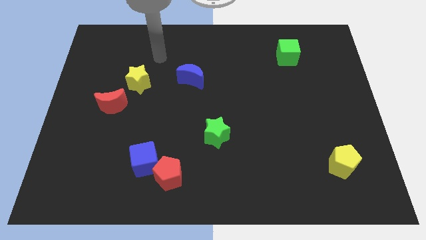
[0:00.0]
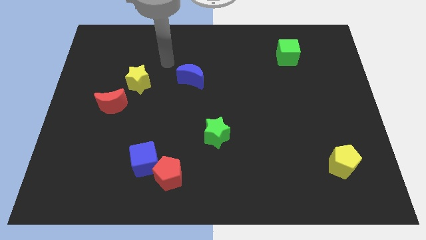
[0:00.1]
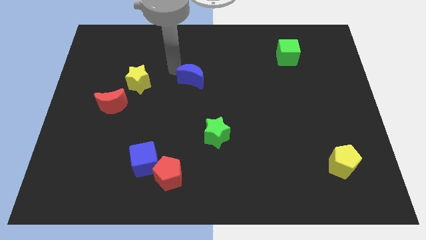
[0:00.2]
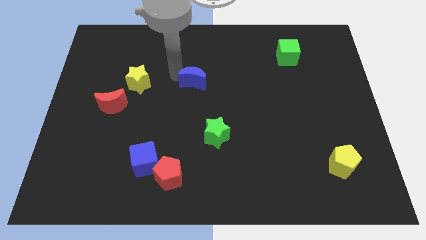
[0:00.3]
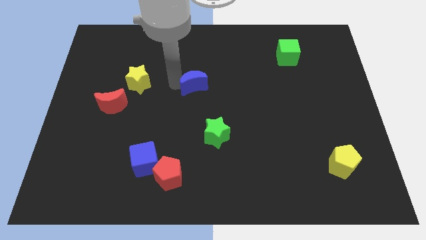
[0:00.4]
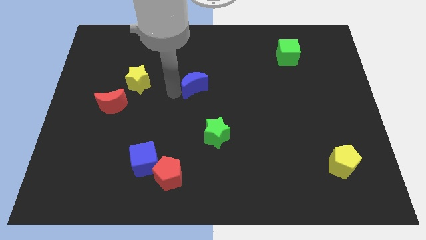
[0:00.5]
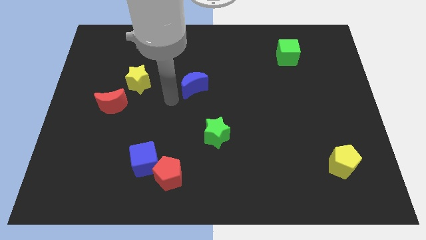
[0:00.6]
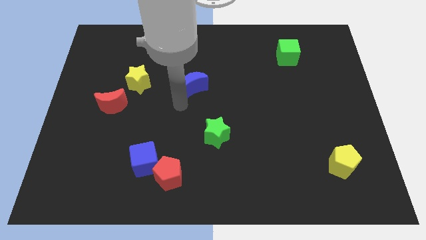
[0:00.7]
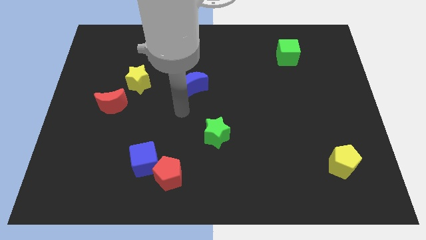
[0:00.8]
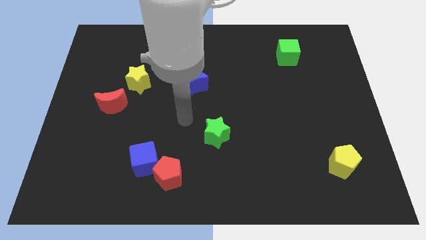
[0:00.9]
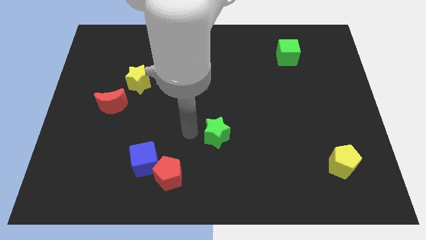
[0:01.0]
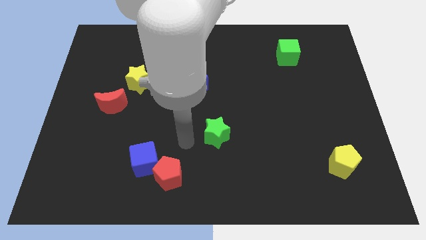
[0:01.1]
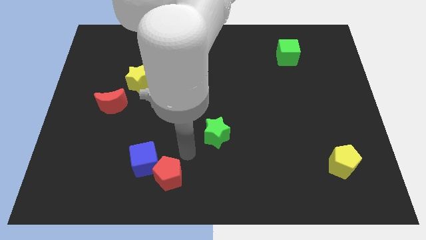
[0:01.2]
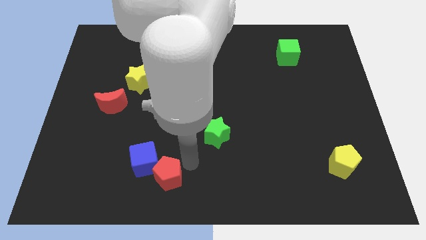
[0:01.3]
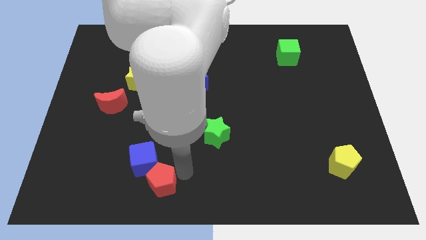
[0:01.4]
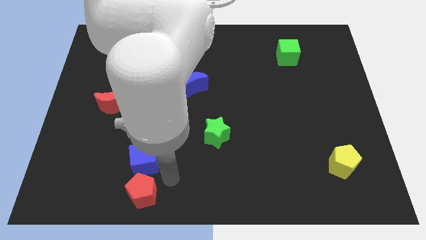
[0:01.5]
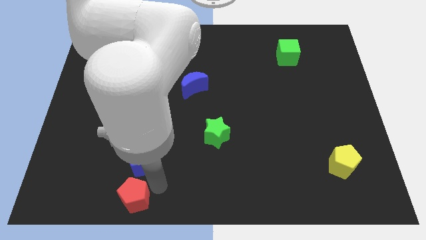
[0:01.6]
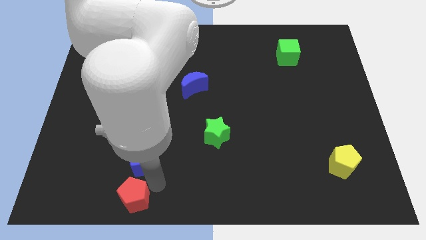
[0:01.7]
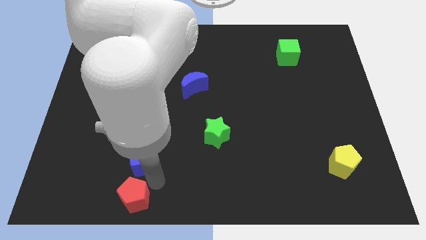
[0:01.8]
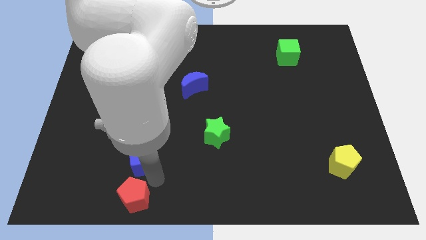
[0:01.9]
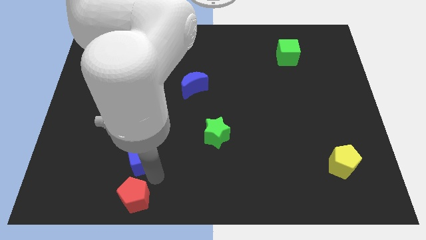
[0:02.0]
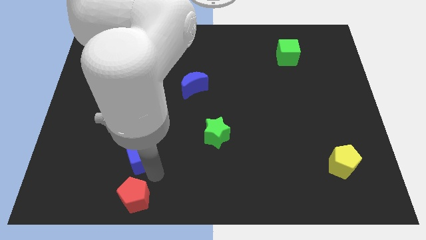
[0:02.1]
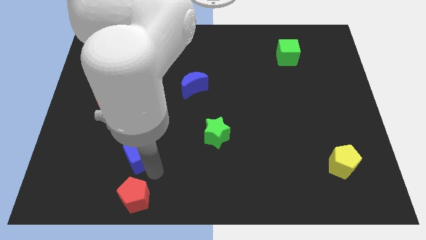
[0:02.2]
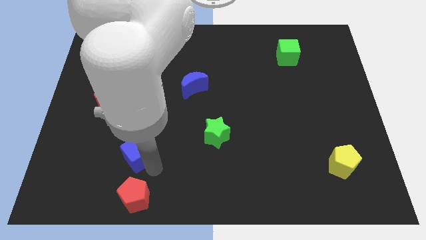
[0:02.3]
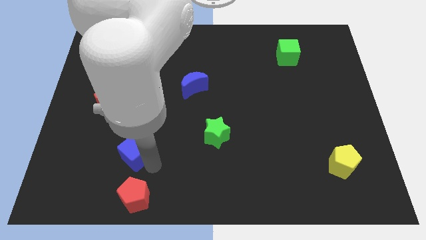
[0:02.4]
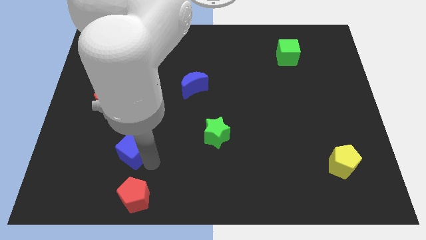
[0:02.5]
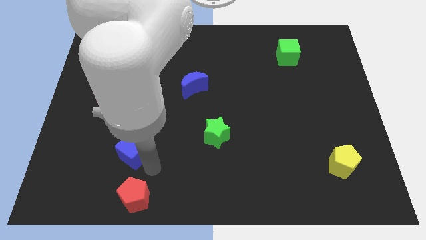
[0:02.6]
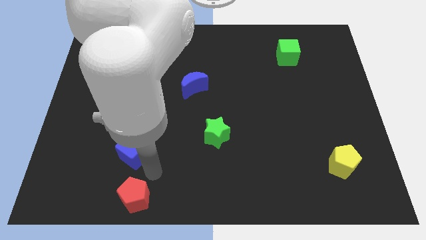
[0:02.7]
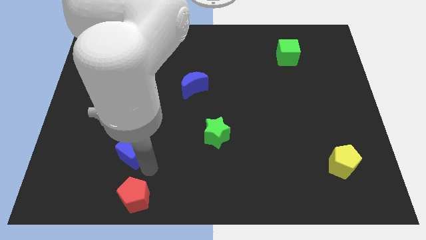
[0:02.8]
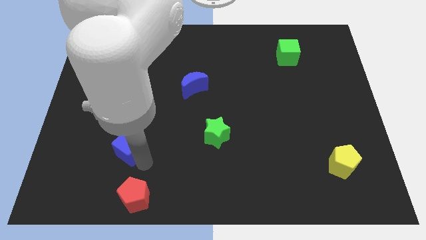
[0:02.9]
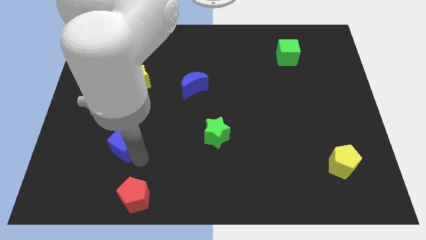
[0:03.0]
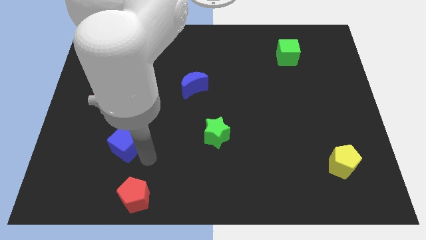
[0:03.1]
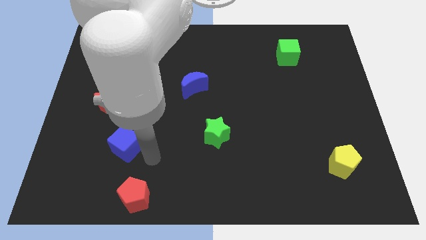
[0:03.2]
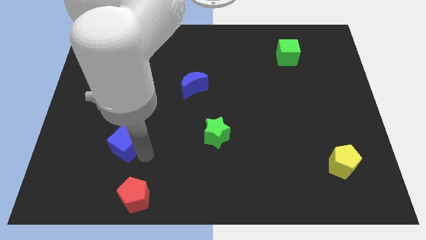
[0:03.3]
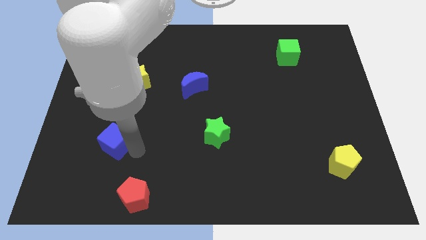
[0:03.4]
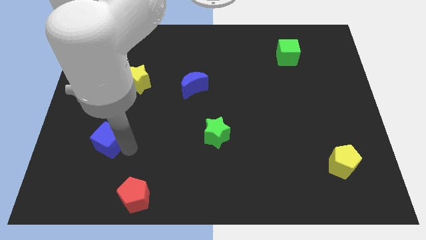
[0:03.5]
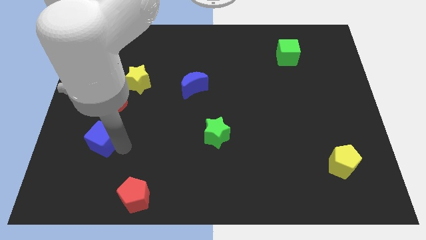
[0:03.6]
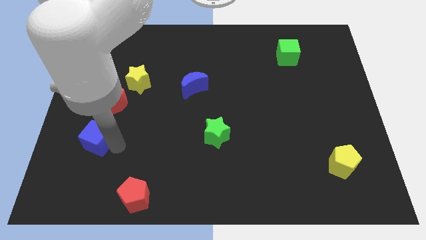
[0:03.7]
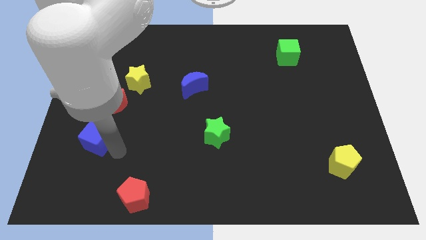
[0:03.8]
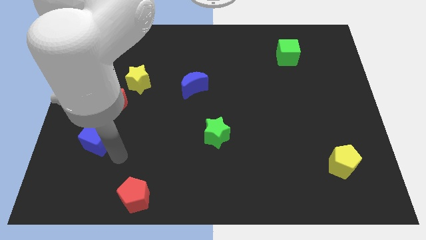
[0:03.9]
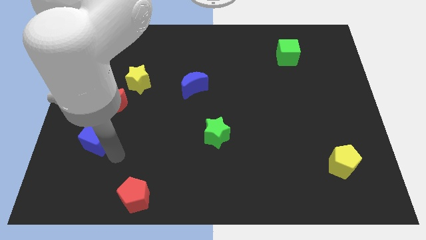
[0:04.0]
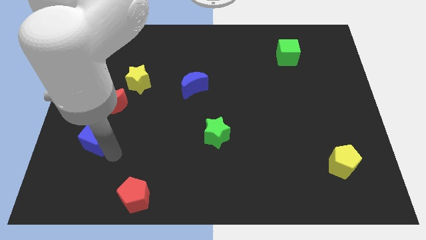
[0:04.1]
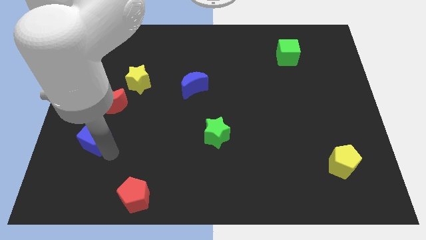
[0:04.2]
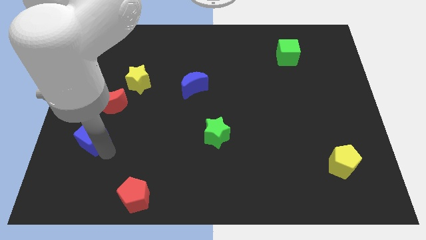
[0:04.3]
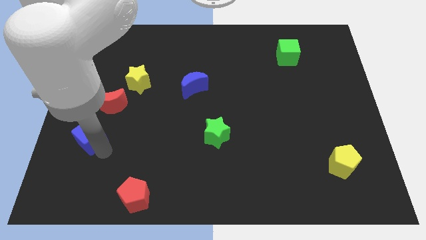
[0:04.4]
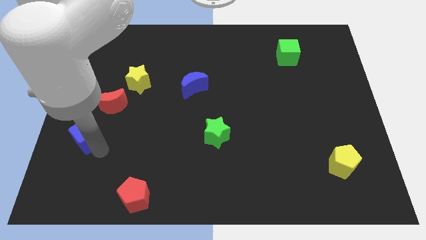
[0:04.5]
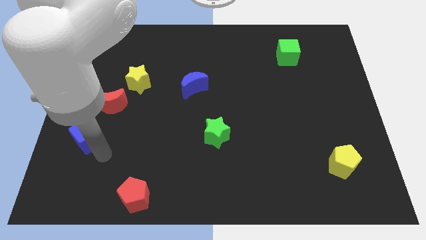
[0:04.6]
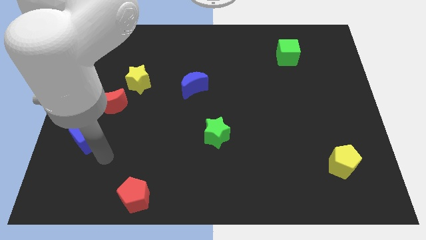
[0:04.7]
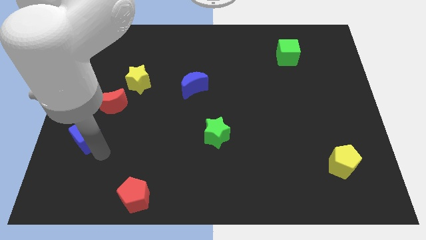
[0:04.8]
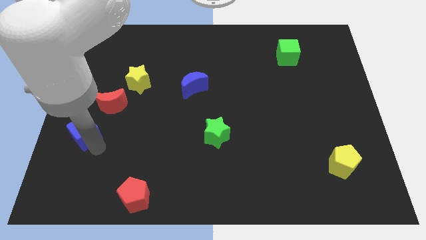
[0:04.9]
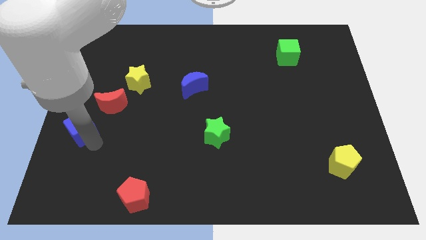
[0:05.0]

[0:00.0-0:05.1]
put the blue cube to the left side of the board

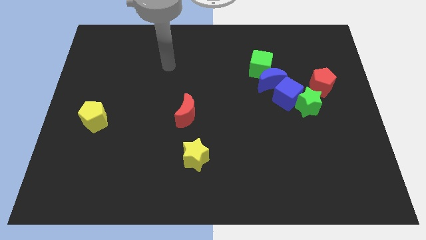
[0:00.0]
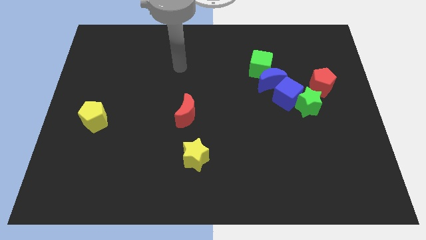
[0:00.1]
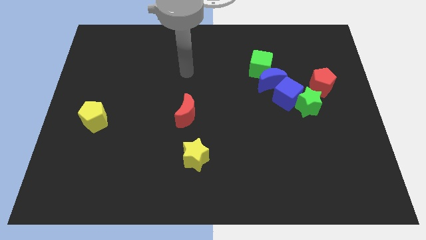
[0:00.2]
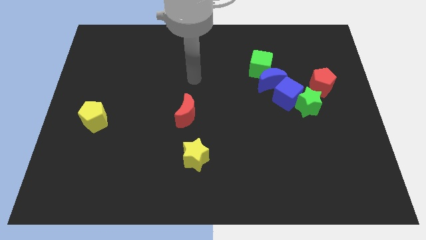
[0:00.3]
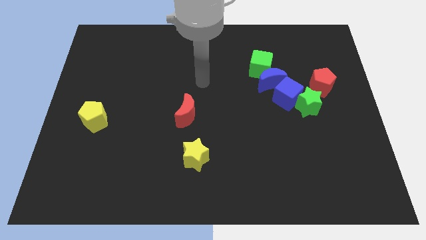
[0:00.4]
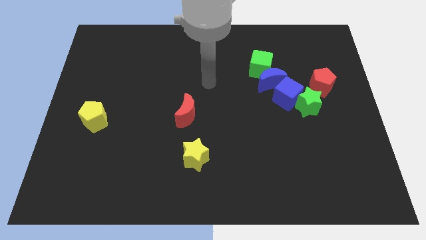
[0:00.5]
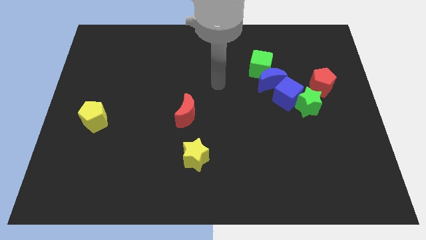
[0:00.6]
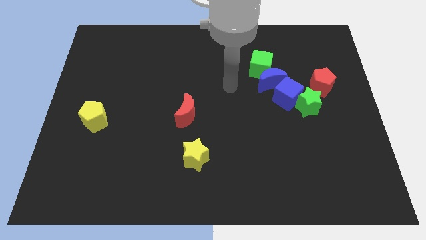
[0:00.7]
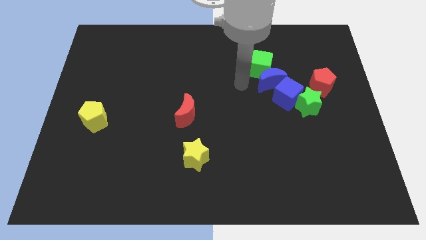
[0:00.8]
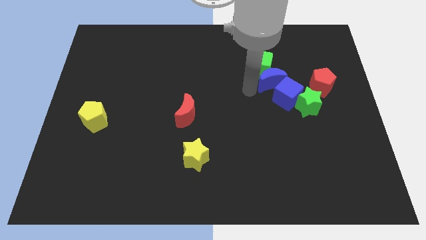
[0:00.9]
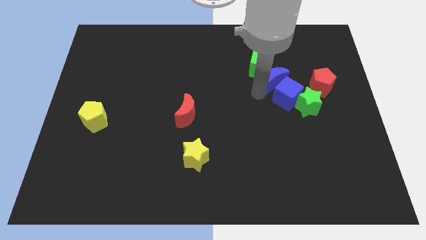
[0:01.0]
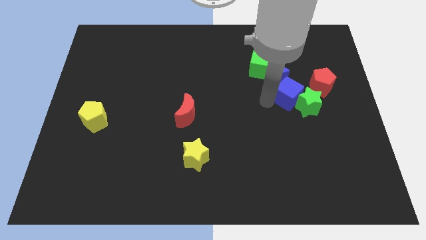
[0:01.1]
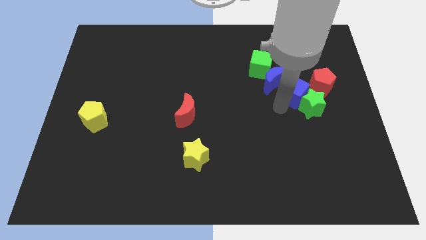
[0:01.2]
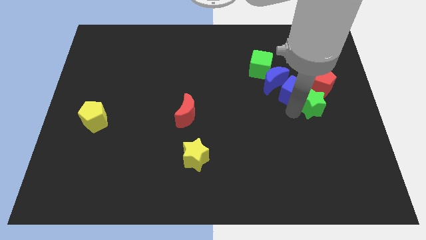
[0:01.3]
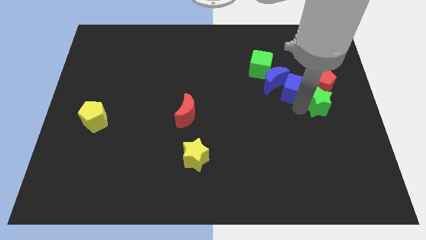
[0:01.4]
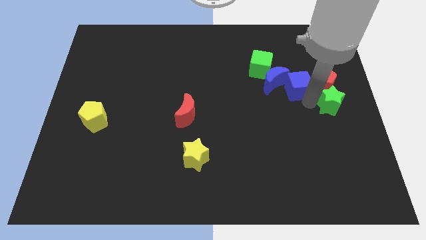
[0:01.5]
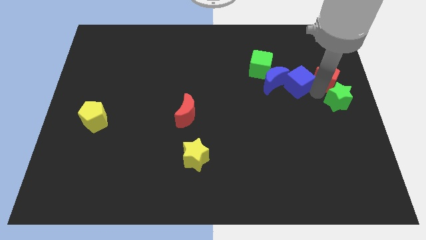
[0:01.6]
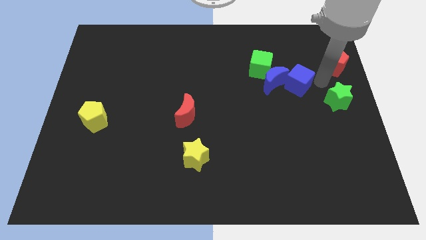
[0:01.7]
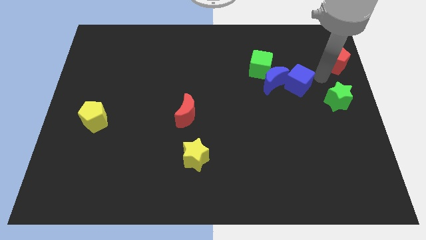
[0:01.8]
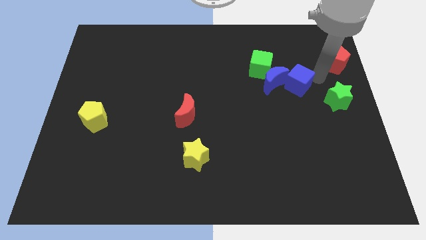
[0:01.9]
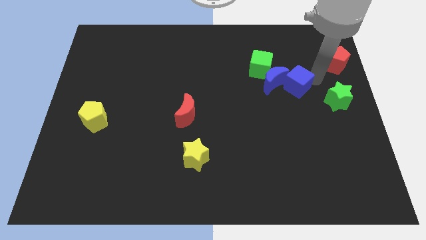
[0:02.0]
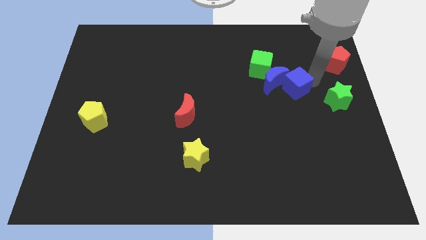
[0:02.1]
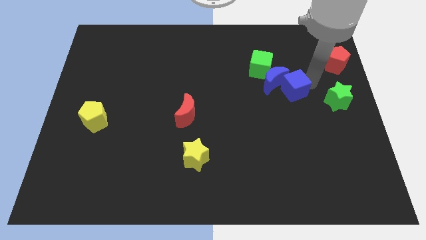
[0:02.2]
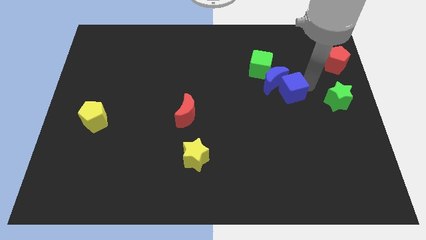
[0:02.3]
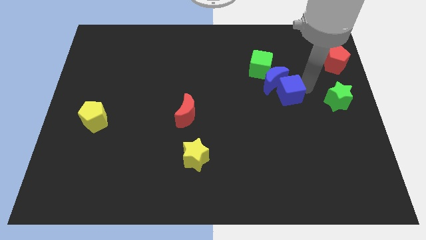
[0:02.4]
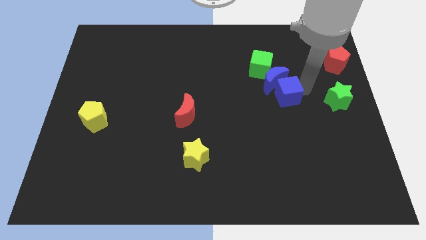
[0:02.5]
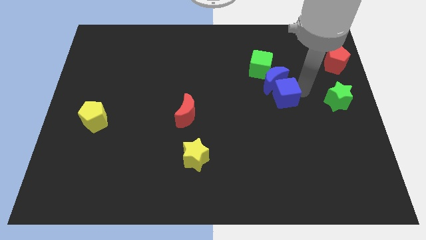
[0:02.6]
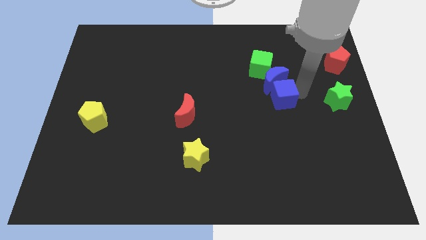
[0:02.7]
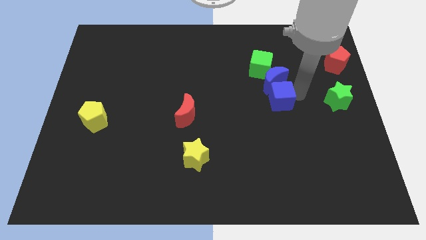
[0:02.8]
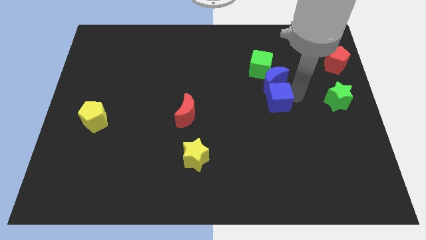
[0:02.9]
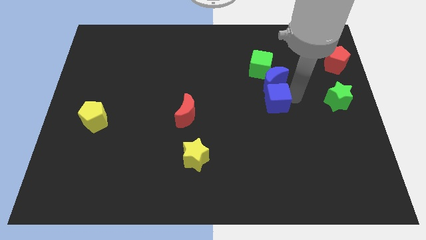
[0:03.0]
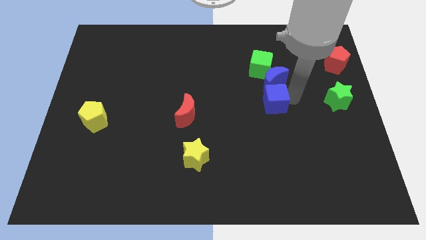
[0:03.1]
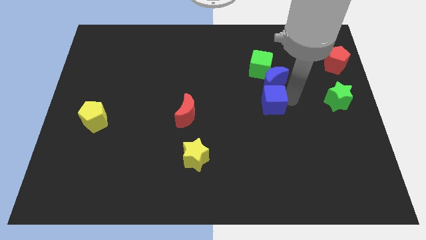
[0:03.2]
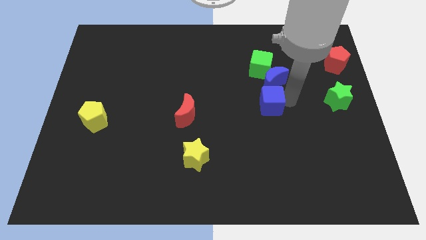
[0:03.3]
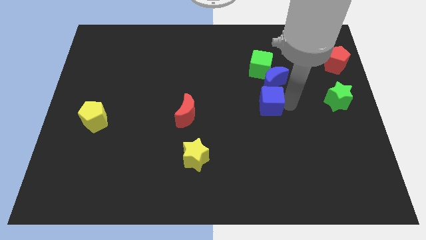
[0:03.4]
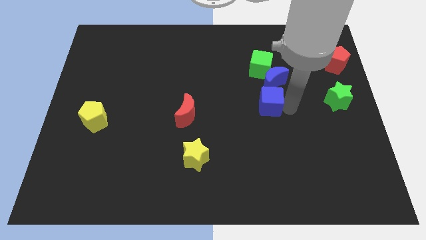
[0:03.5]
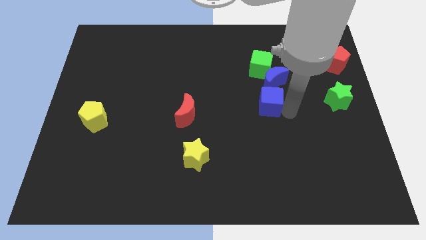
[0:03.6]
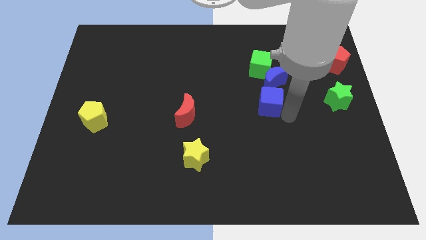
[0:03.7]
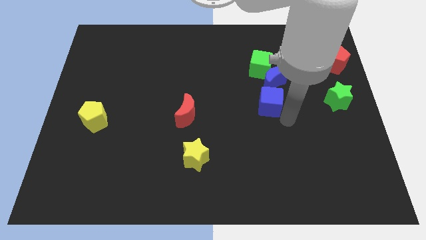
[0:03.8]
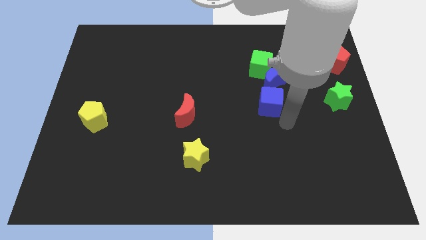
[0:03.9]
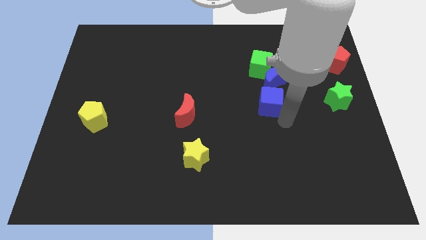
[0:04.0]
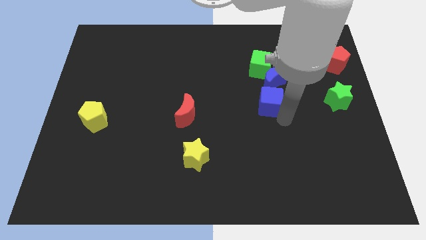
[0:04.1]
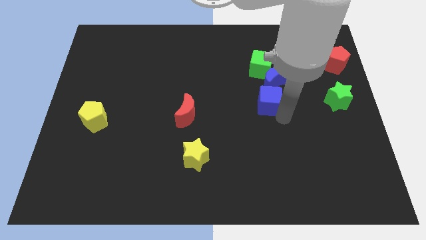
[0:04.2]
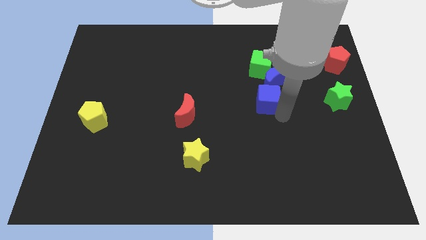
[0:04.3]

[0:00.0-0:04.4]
slide the blue cube to the middle of the board
